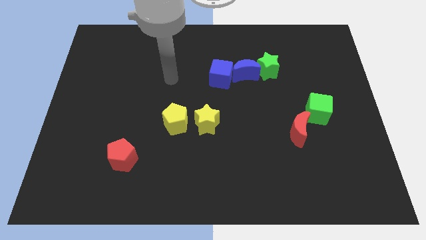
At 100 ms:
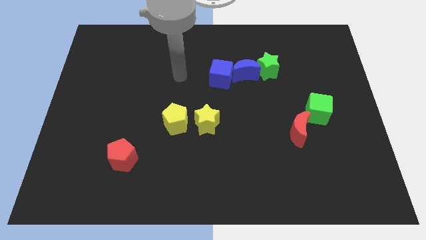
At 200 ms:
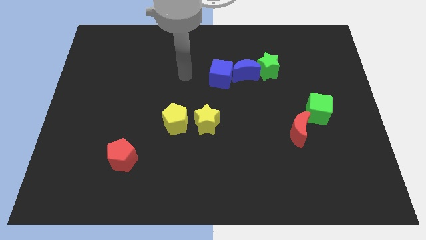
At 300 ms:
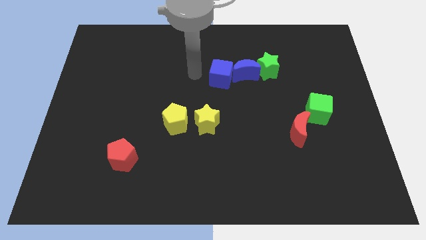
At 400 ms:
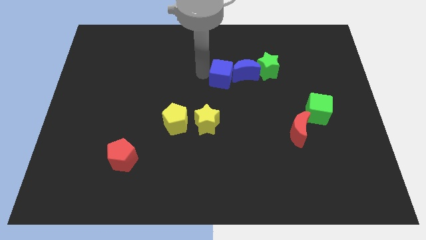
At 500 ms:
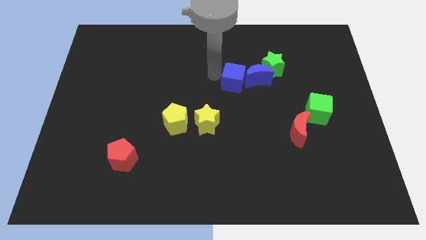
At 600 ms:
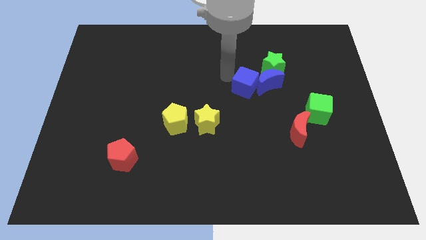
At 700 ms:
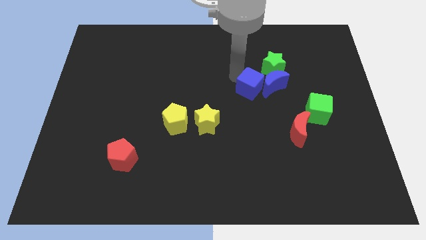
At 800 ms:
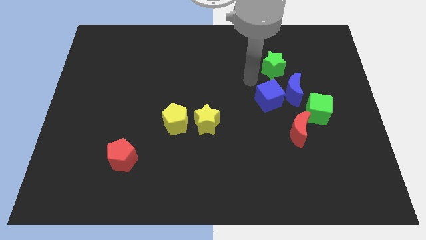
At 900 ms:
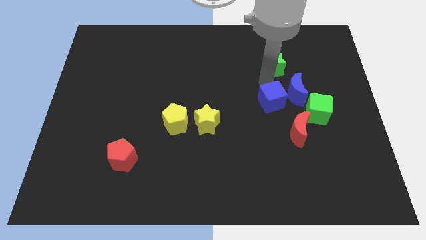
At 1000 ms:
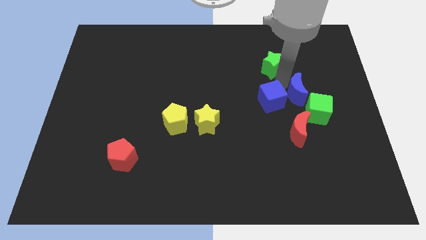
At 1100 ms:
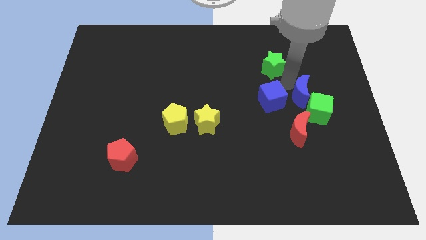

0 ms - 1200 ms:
separate the green star from the blue moon

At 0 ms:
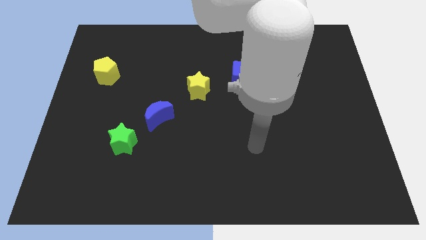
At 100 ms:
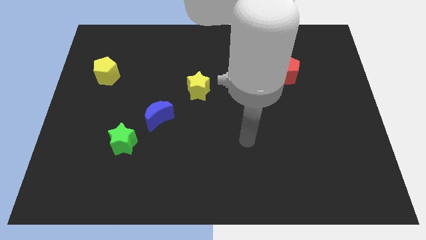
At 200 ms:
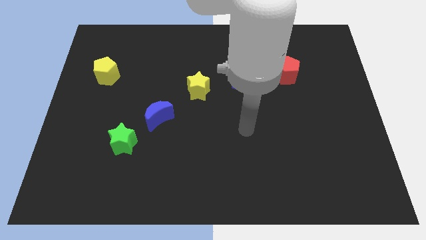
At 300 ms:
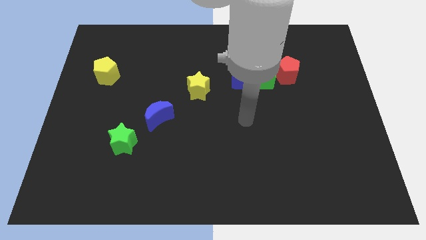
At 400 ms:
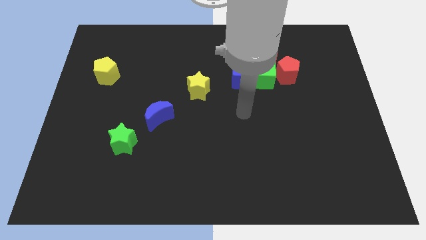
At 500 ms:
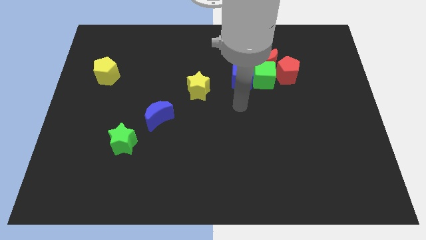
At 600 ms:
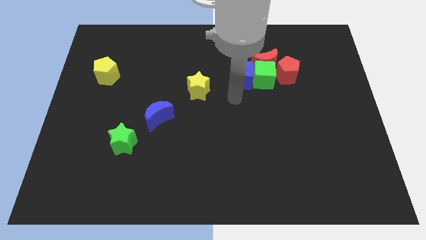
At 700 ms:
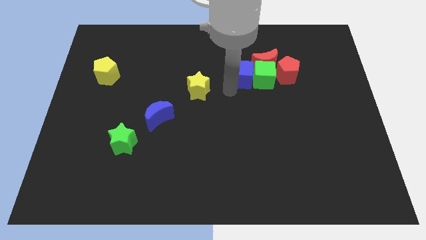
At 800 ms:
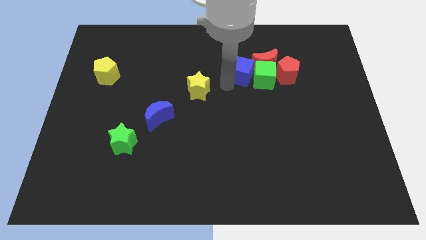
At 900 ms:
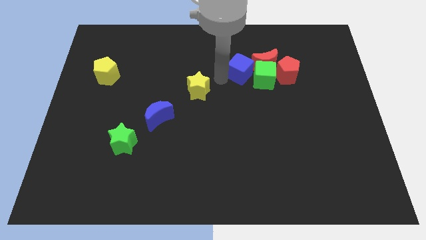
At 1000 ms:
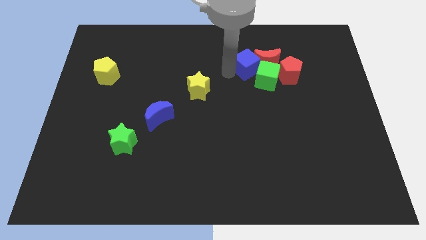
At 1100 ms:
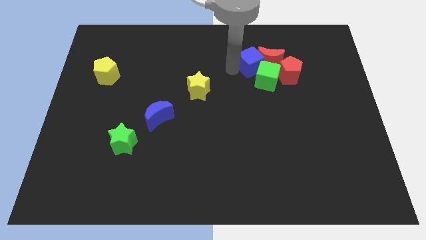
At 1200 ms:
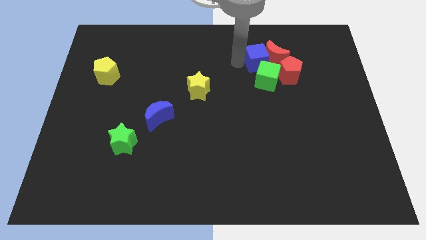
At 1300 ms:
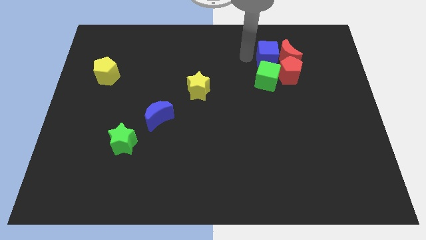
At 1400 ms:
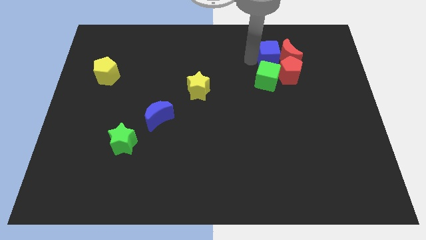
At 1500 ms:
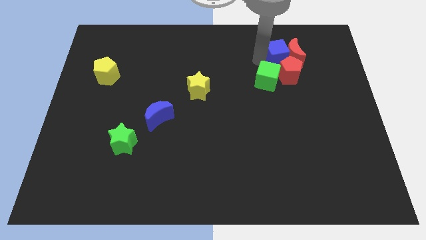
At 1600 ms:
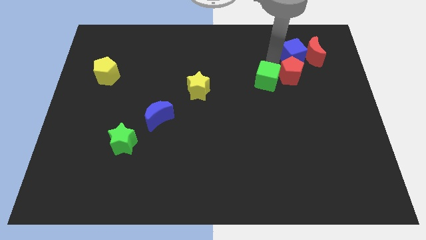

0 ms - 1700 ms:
separate the green cube from the red moon, blue cube, and red pentagon

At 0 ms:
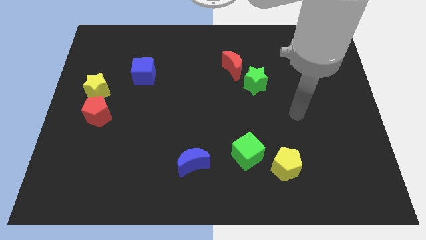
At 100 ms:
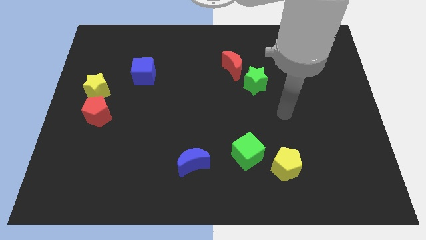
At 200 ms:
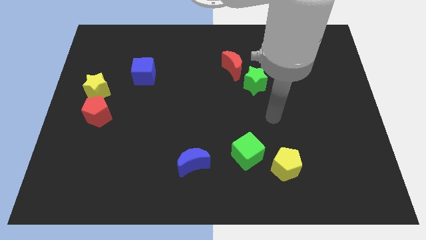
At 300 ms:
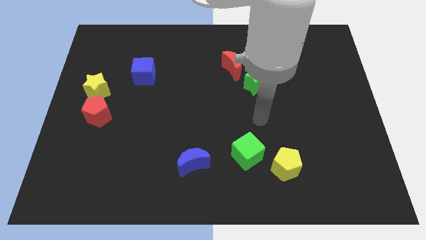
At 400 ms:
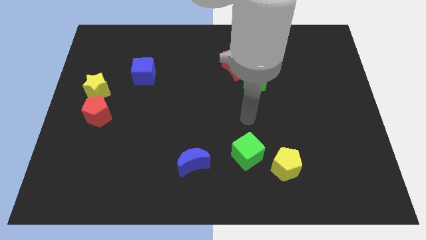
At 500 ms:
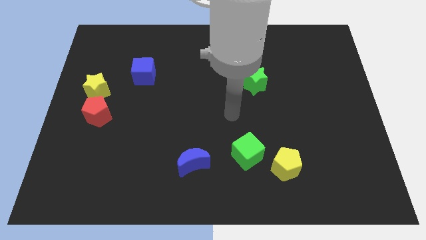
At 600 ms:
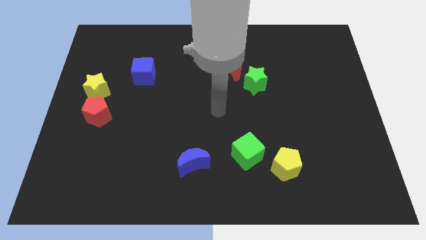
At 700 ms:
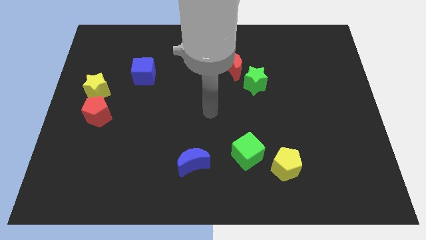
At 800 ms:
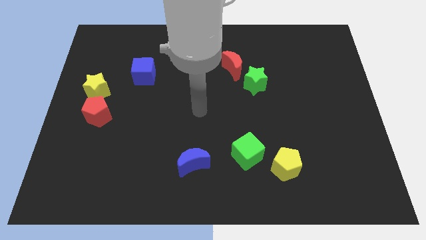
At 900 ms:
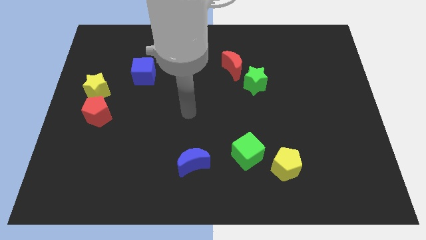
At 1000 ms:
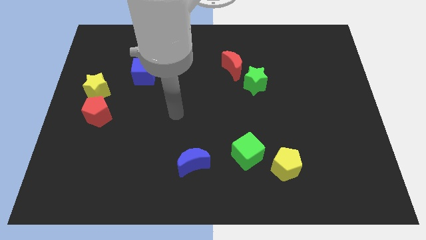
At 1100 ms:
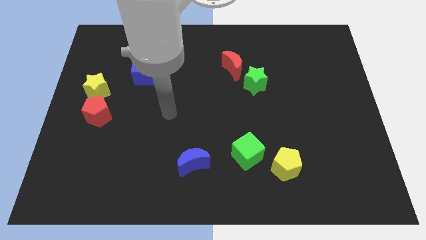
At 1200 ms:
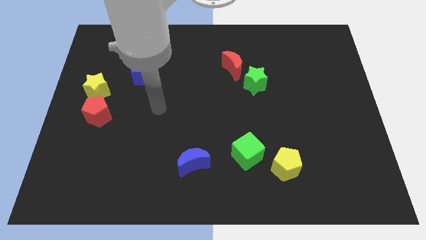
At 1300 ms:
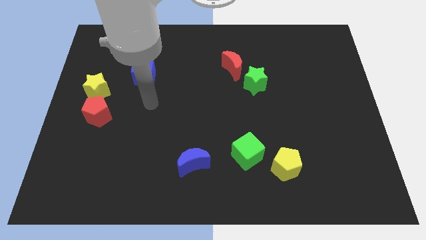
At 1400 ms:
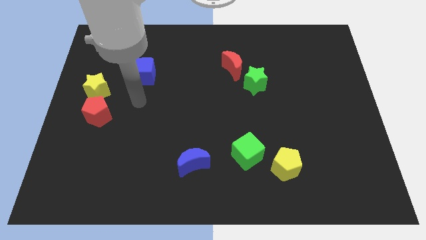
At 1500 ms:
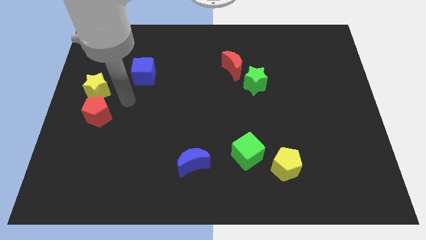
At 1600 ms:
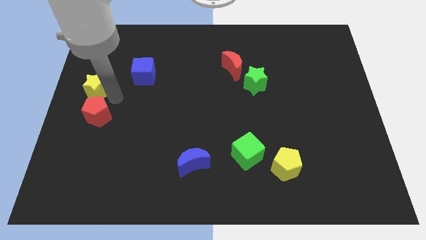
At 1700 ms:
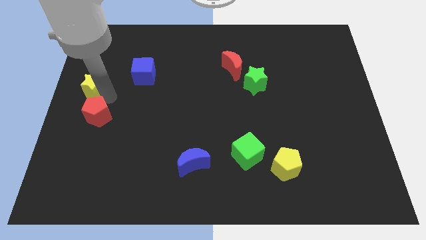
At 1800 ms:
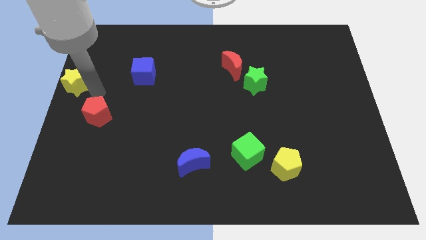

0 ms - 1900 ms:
separate the red pentagon from the yellow star

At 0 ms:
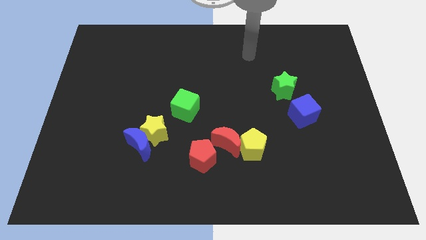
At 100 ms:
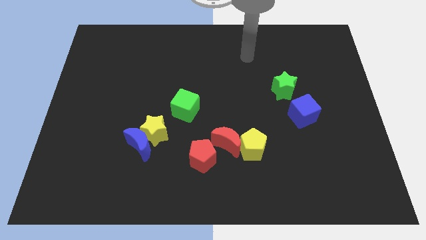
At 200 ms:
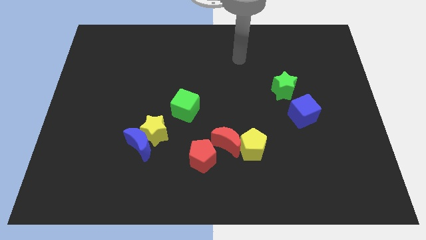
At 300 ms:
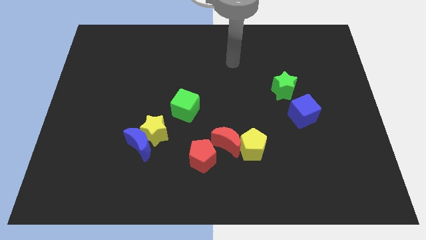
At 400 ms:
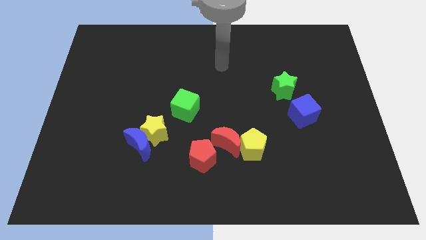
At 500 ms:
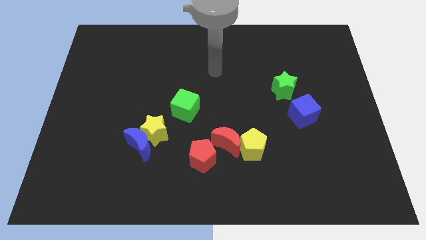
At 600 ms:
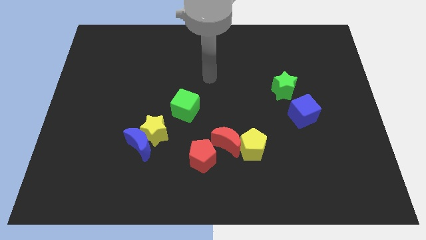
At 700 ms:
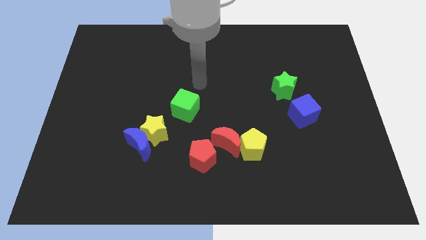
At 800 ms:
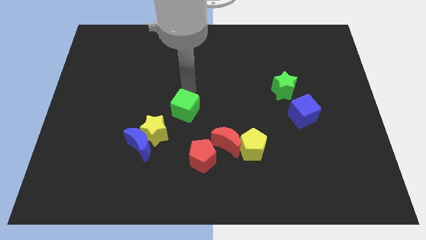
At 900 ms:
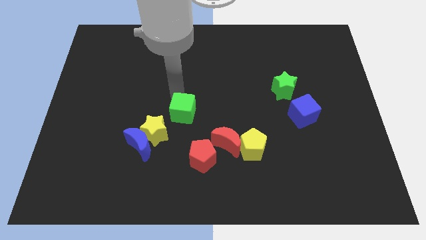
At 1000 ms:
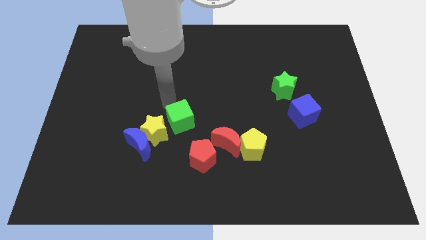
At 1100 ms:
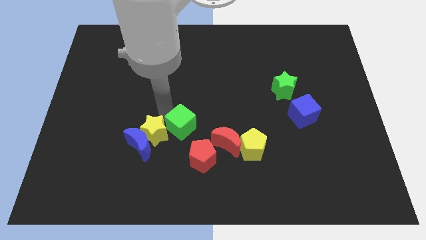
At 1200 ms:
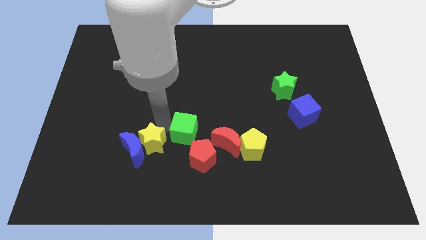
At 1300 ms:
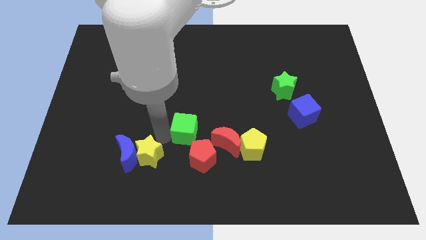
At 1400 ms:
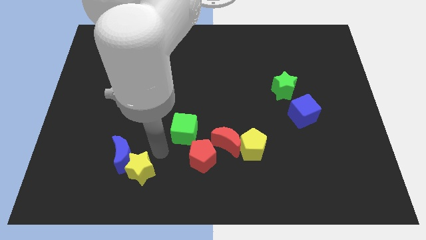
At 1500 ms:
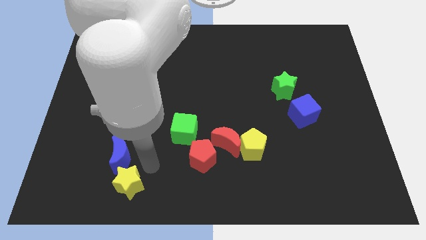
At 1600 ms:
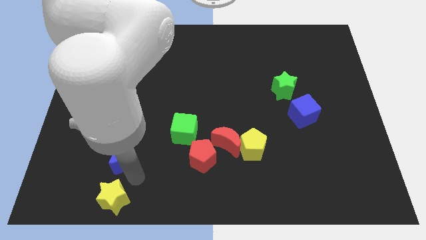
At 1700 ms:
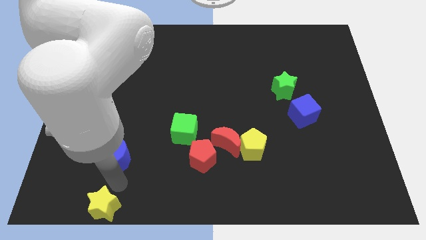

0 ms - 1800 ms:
move the blue moon away from the yellow star

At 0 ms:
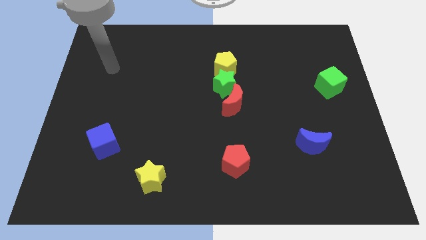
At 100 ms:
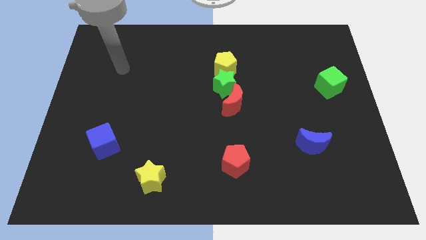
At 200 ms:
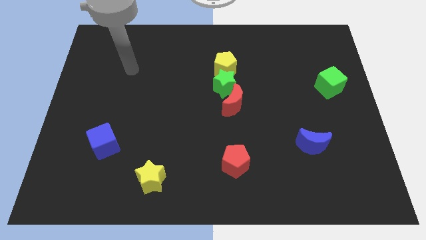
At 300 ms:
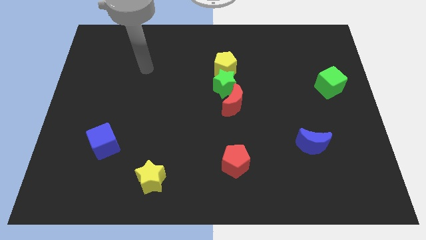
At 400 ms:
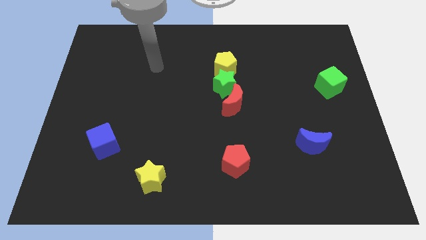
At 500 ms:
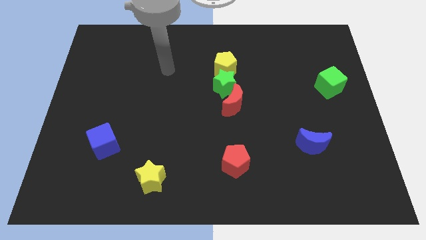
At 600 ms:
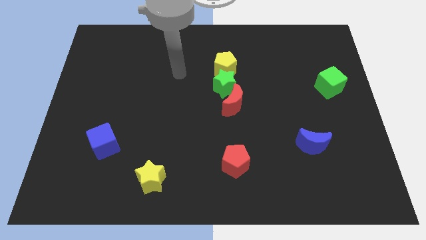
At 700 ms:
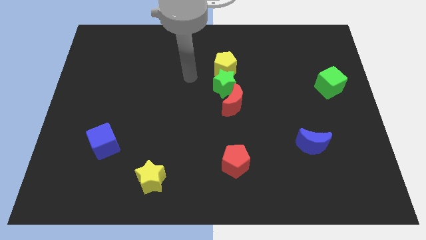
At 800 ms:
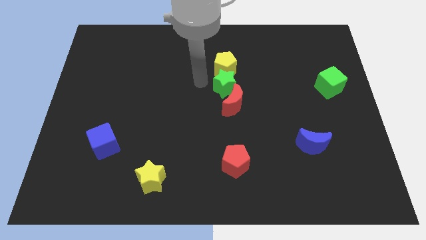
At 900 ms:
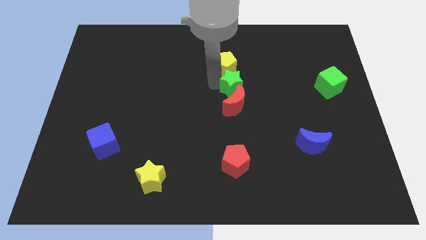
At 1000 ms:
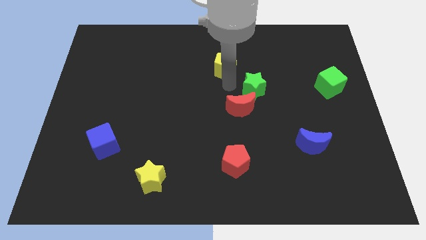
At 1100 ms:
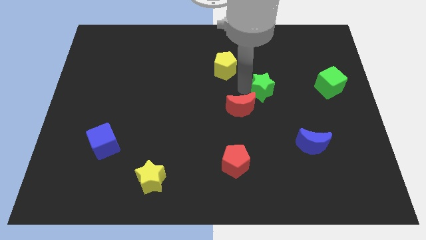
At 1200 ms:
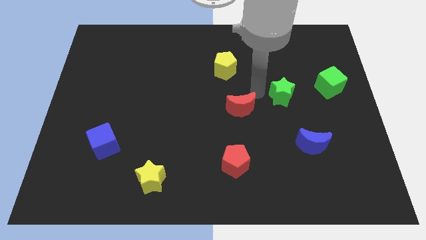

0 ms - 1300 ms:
move the red moon away from the green star

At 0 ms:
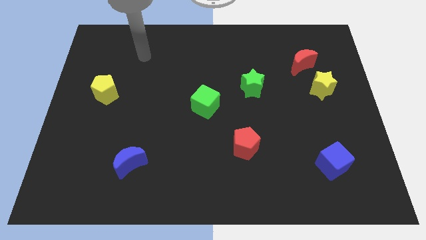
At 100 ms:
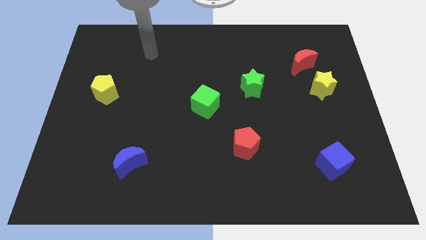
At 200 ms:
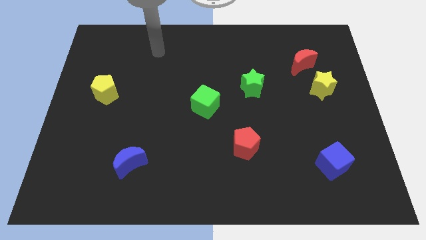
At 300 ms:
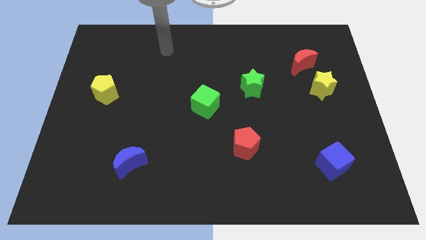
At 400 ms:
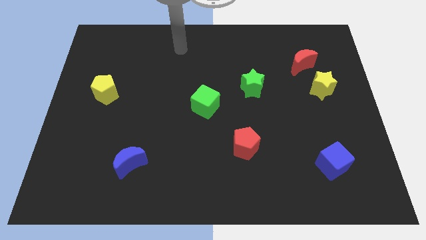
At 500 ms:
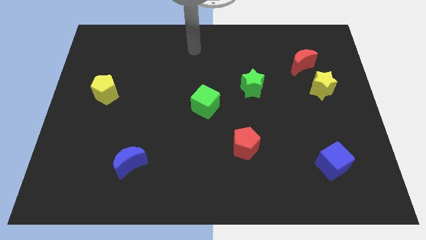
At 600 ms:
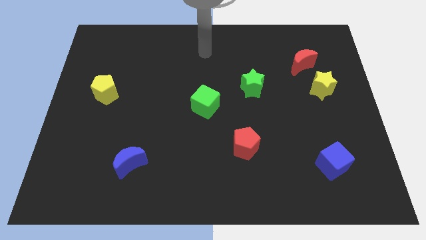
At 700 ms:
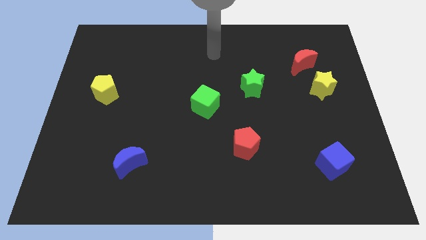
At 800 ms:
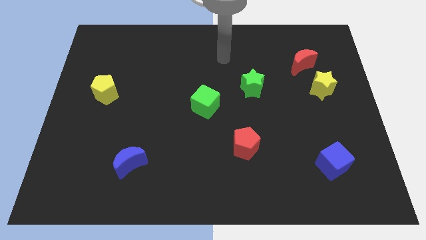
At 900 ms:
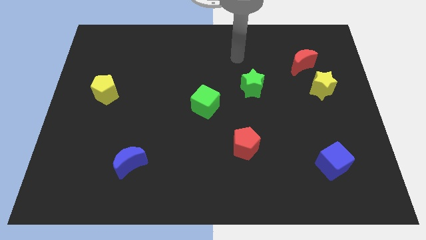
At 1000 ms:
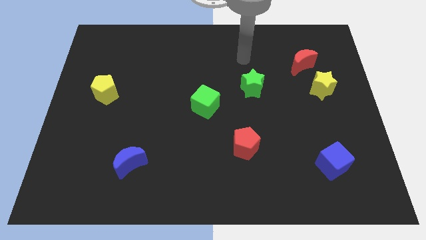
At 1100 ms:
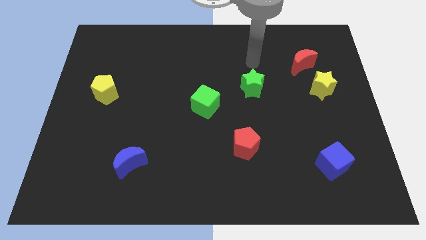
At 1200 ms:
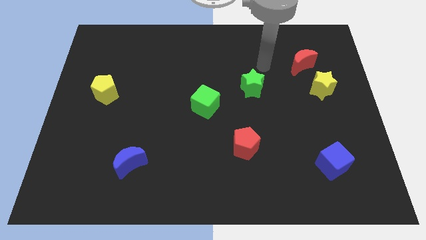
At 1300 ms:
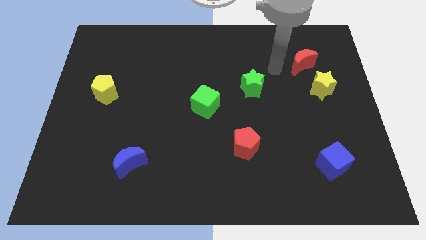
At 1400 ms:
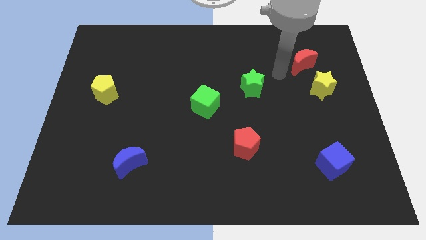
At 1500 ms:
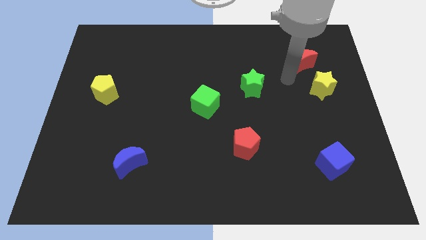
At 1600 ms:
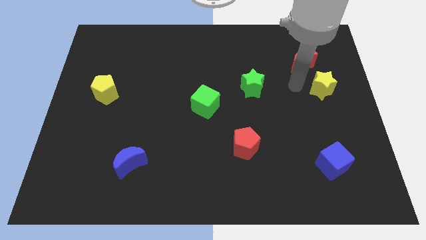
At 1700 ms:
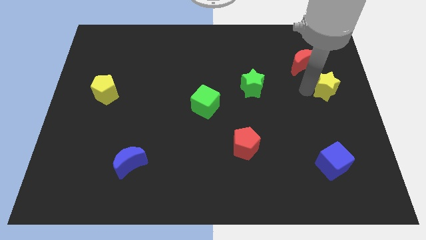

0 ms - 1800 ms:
pull the red moon apart from the yellow star
